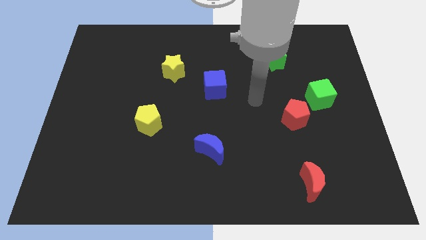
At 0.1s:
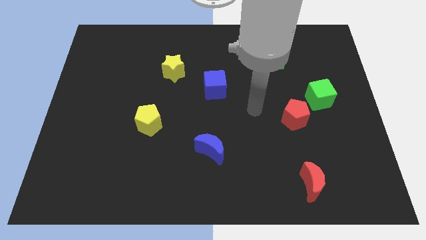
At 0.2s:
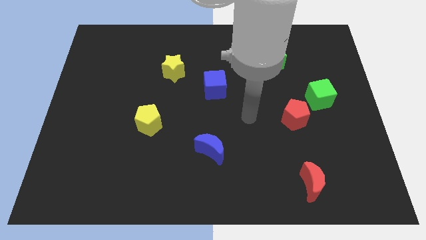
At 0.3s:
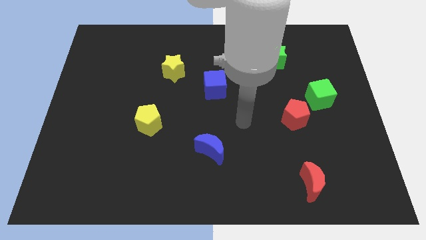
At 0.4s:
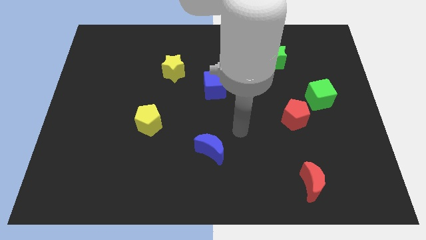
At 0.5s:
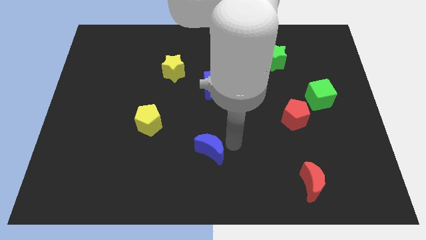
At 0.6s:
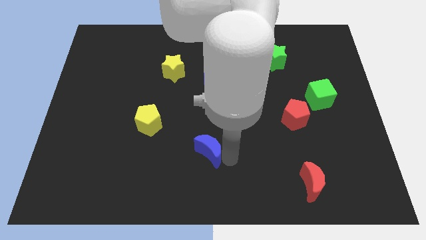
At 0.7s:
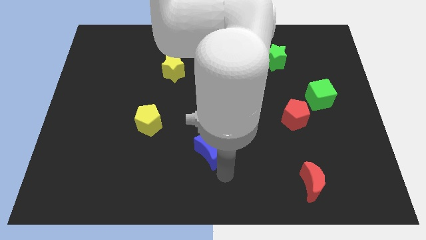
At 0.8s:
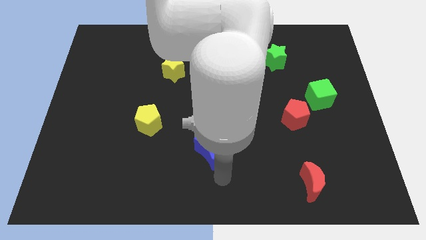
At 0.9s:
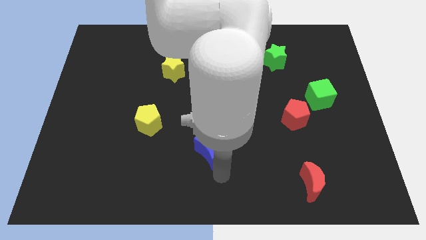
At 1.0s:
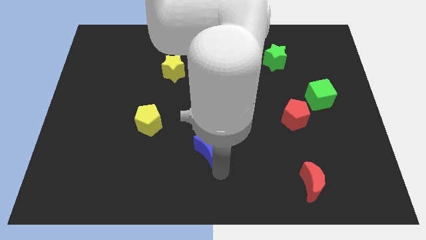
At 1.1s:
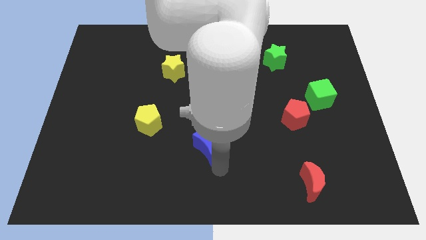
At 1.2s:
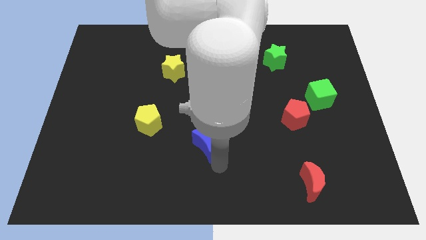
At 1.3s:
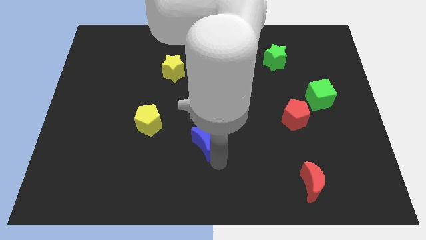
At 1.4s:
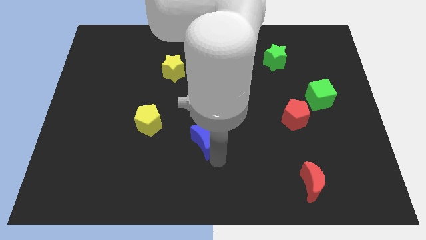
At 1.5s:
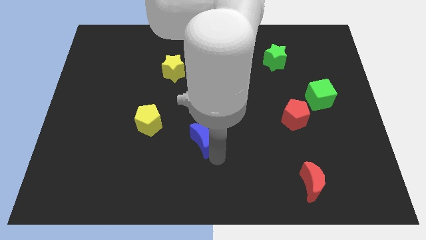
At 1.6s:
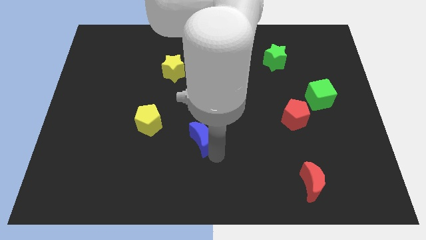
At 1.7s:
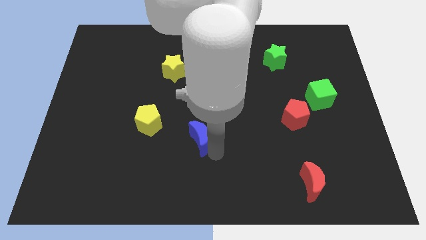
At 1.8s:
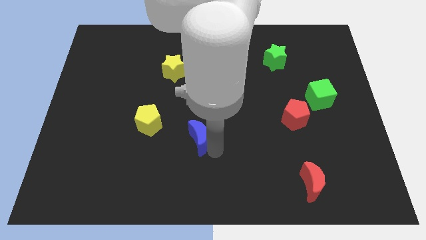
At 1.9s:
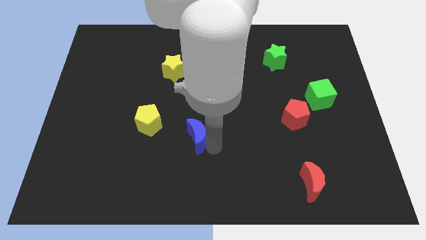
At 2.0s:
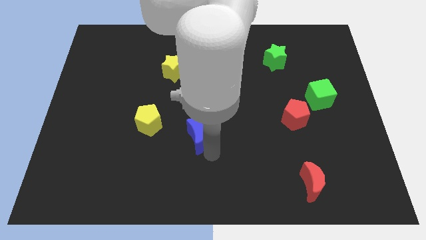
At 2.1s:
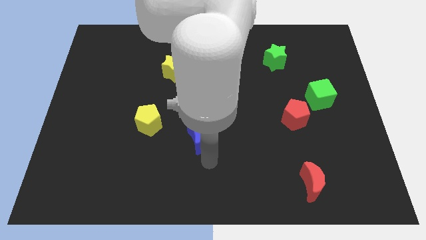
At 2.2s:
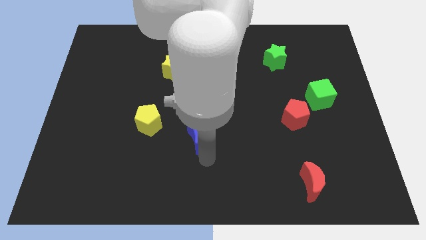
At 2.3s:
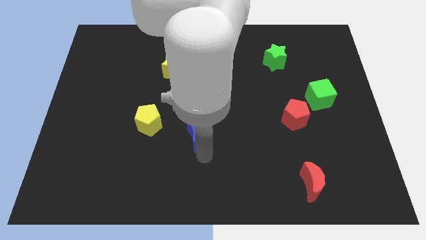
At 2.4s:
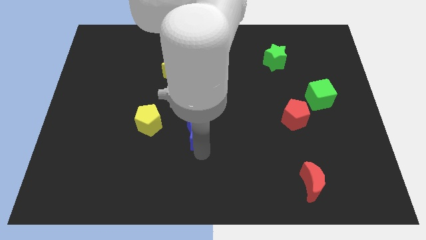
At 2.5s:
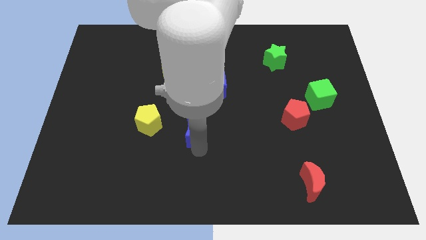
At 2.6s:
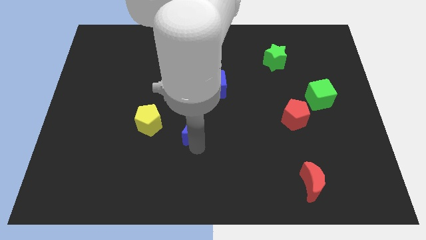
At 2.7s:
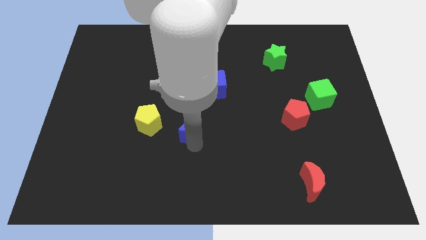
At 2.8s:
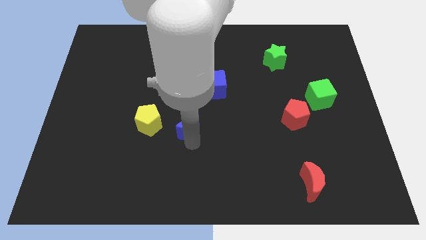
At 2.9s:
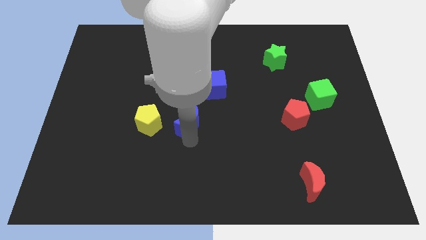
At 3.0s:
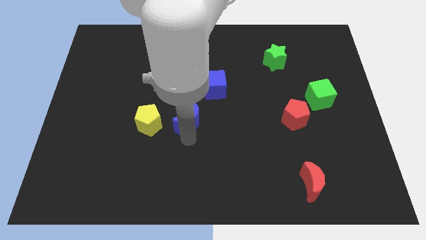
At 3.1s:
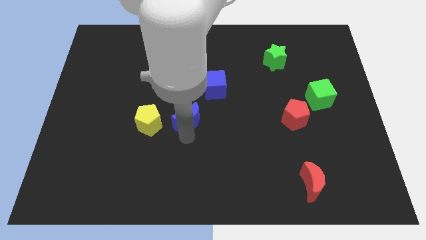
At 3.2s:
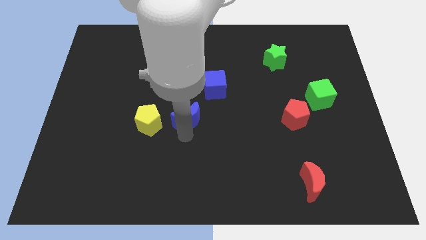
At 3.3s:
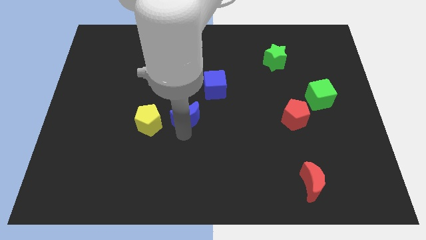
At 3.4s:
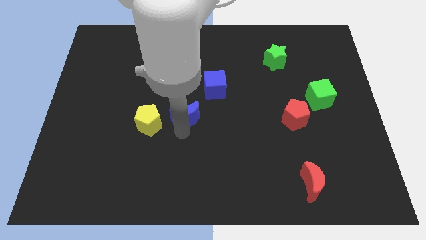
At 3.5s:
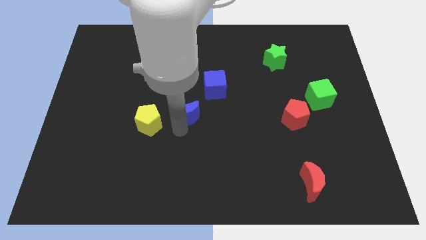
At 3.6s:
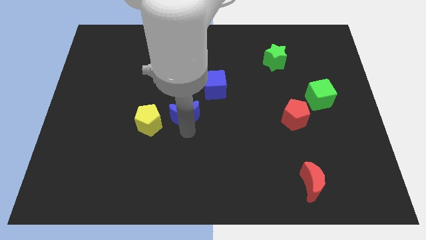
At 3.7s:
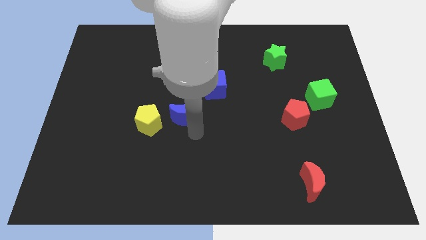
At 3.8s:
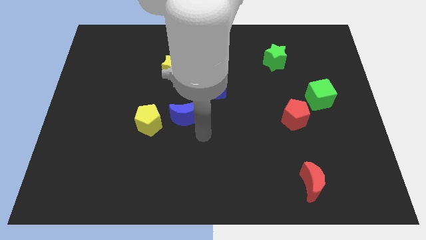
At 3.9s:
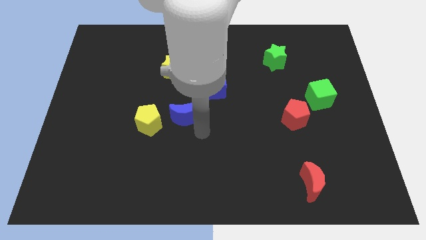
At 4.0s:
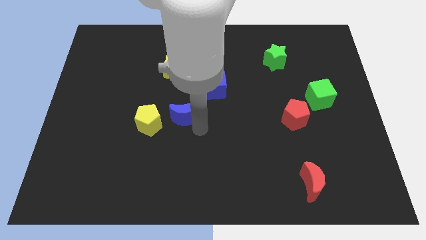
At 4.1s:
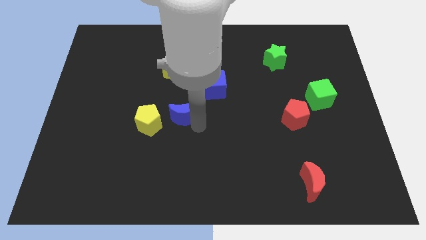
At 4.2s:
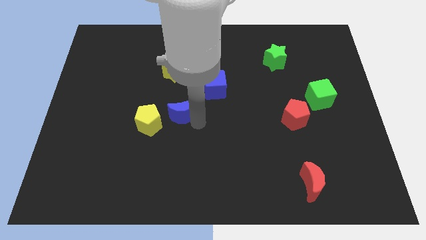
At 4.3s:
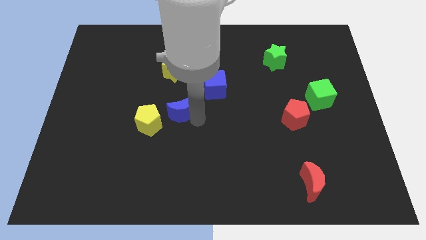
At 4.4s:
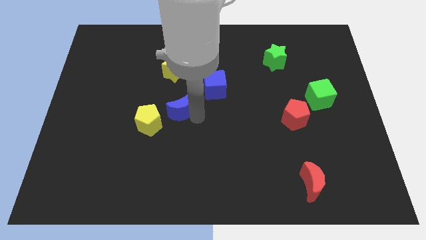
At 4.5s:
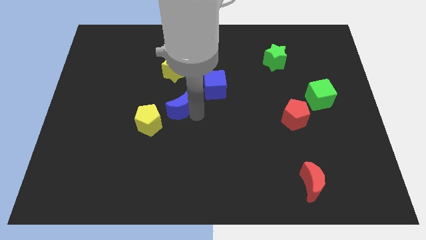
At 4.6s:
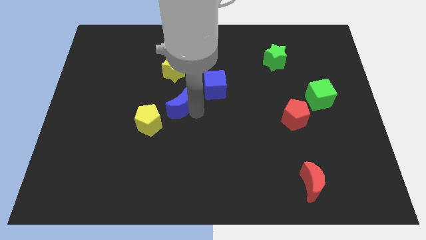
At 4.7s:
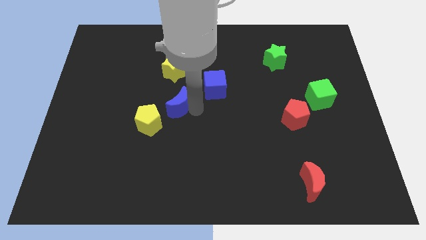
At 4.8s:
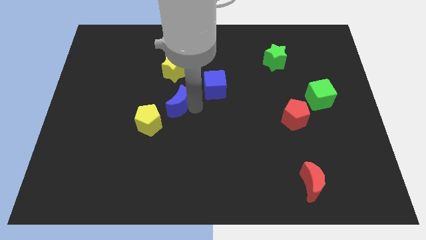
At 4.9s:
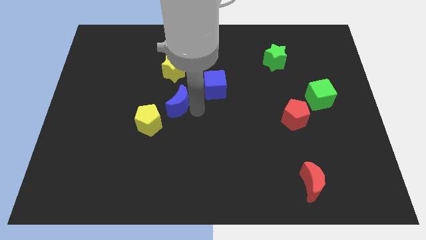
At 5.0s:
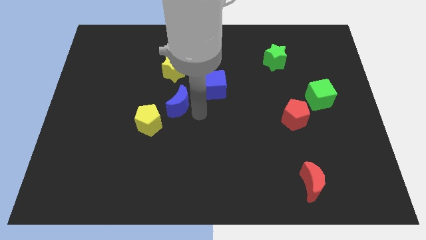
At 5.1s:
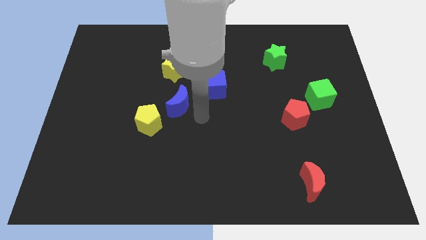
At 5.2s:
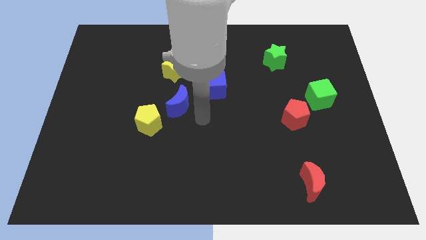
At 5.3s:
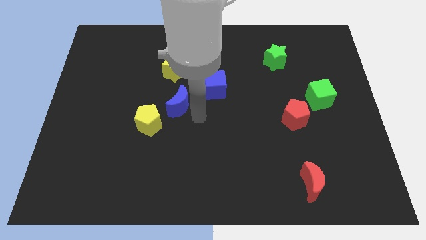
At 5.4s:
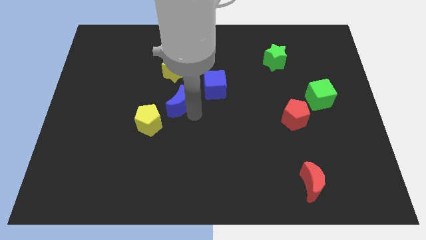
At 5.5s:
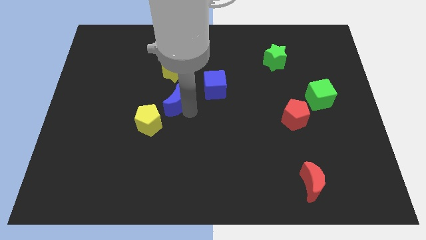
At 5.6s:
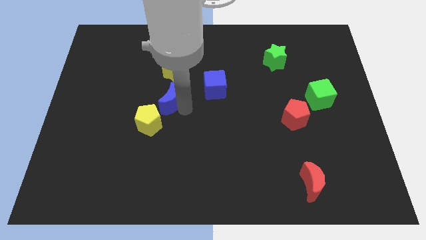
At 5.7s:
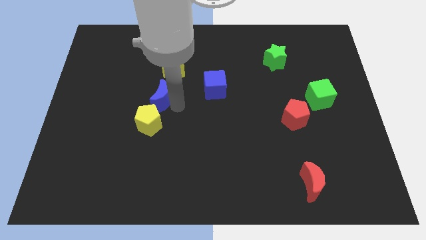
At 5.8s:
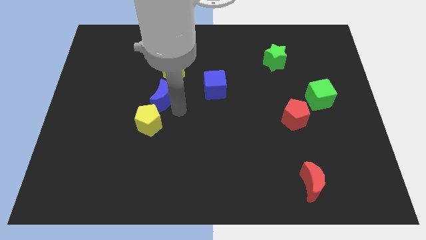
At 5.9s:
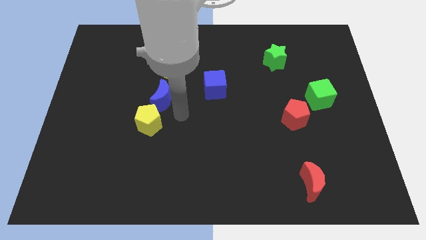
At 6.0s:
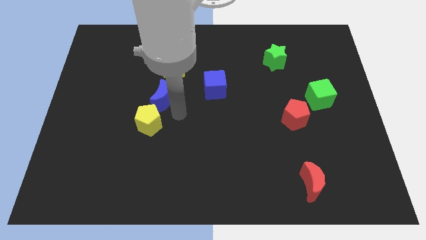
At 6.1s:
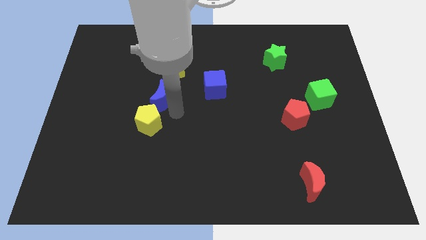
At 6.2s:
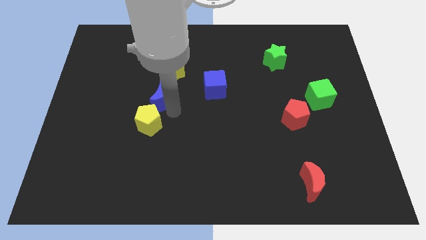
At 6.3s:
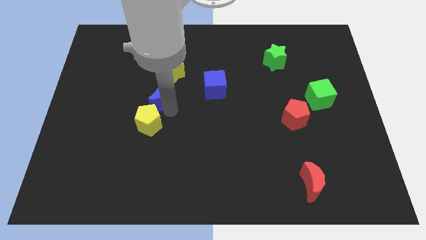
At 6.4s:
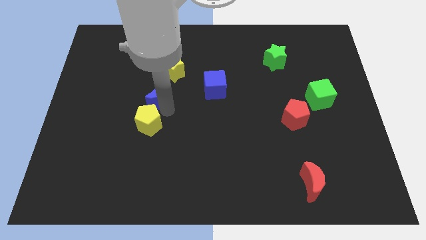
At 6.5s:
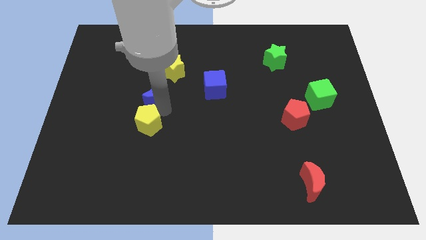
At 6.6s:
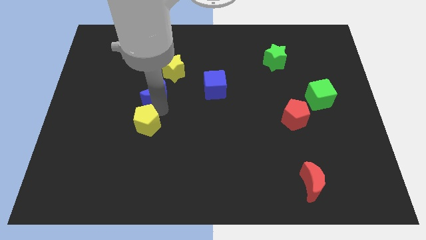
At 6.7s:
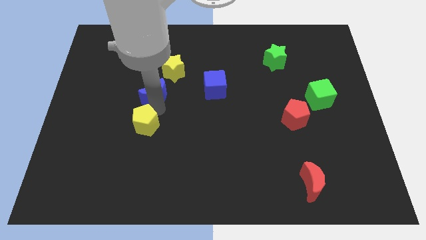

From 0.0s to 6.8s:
move the blue moon up and left diagonally

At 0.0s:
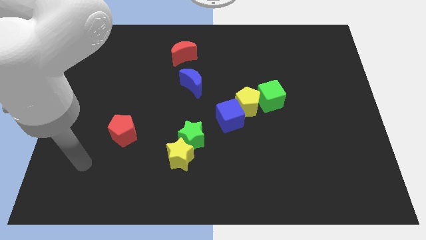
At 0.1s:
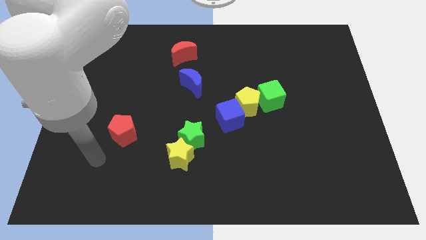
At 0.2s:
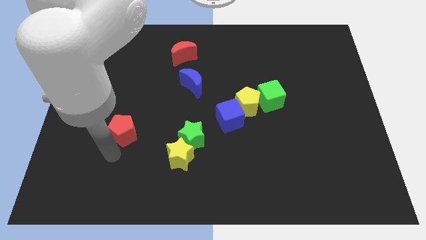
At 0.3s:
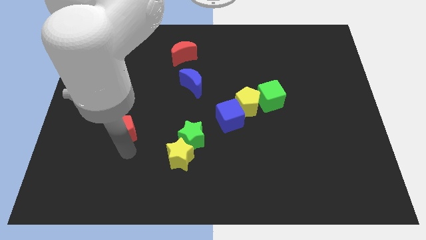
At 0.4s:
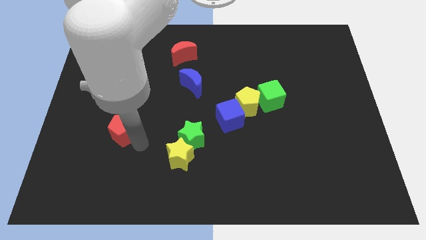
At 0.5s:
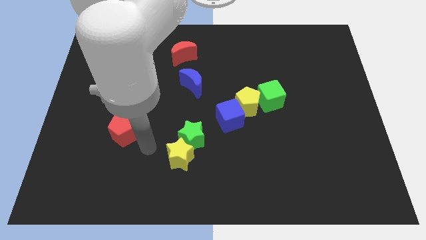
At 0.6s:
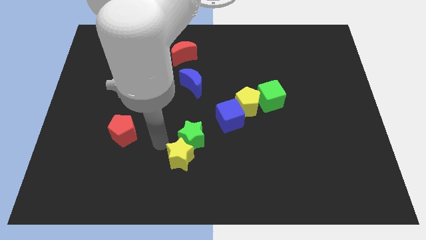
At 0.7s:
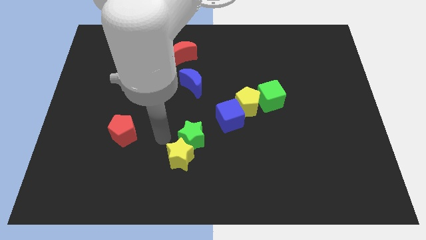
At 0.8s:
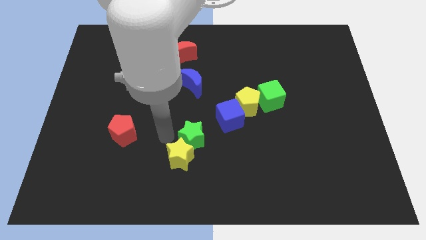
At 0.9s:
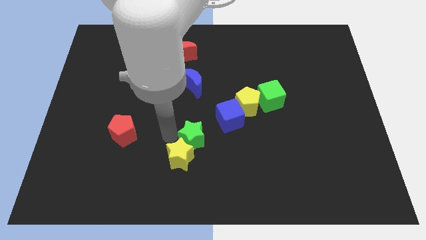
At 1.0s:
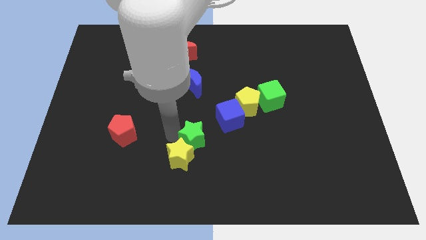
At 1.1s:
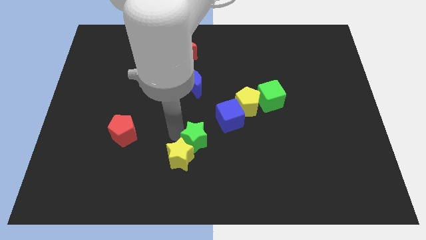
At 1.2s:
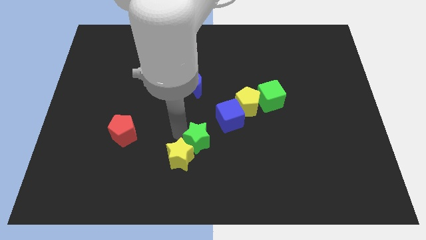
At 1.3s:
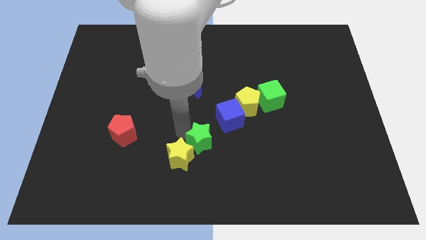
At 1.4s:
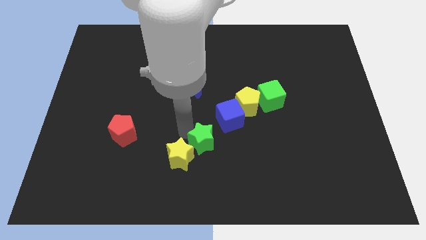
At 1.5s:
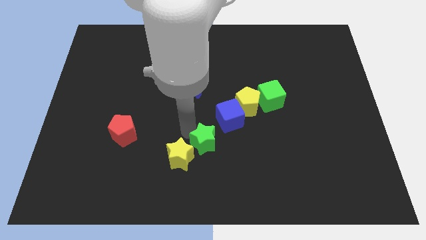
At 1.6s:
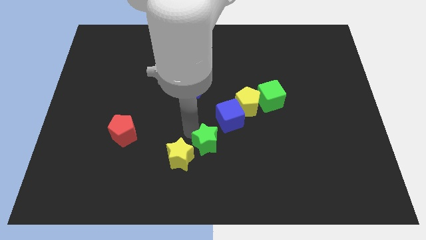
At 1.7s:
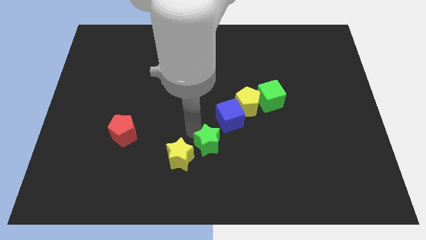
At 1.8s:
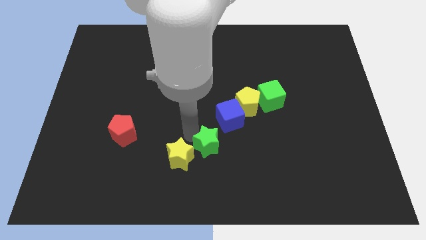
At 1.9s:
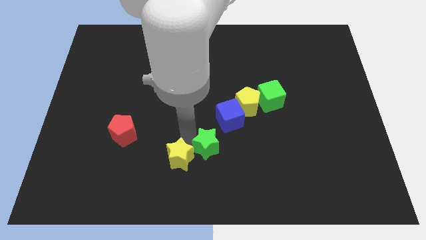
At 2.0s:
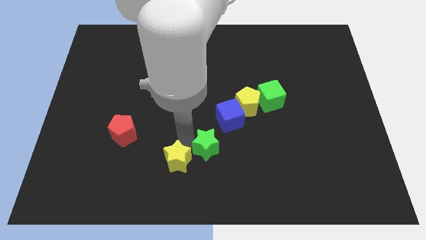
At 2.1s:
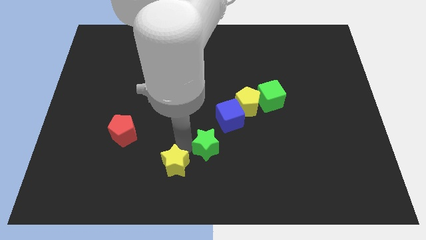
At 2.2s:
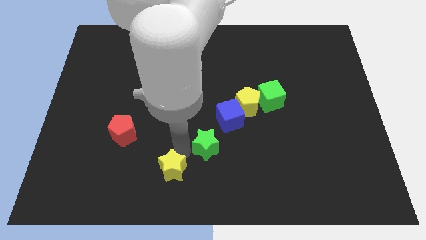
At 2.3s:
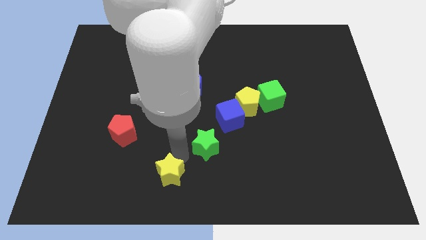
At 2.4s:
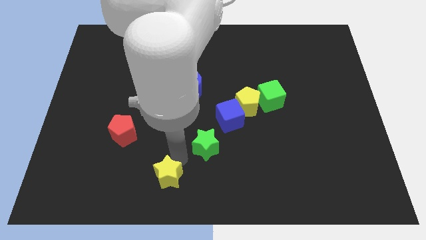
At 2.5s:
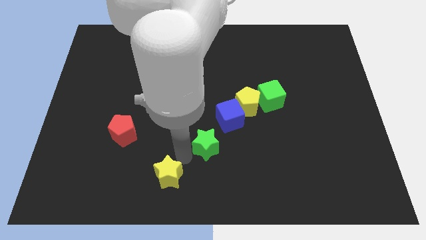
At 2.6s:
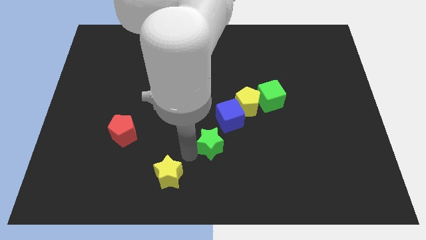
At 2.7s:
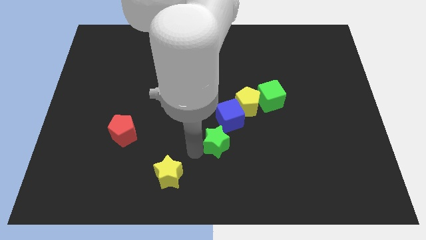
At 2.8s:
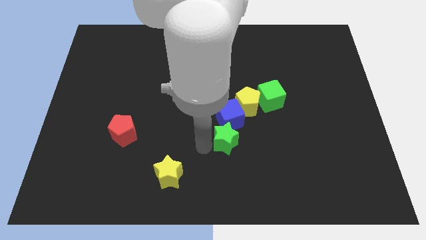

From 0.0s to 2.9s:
slide the green star to the right a little bit
